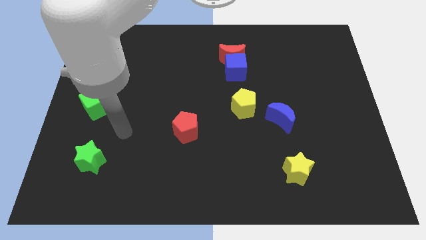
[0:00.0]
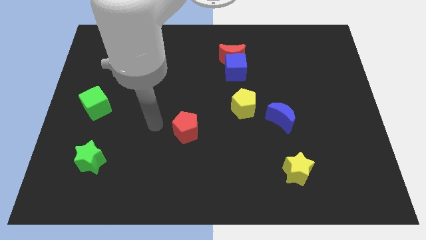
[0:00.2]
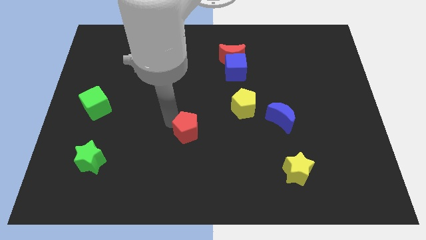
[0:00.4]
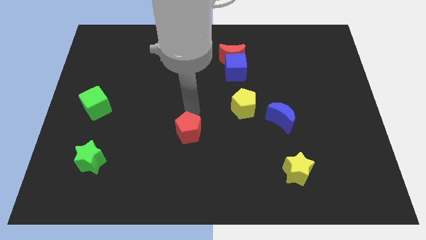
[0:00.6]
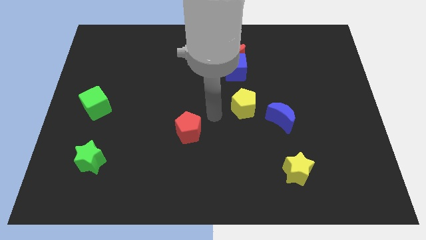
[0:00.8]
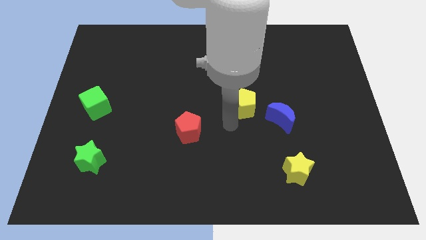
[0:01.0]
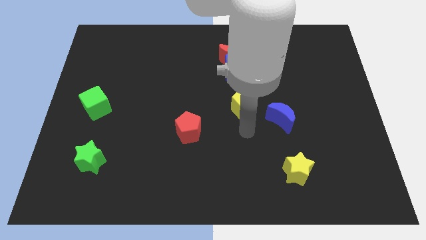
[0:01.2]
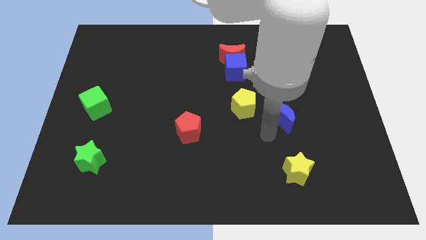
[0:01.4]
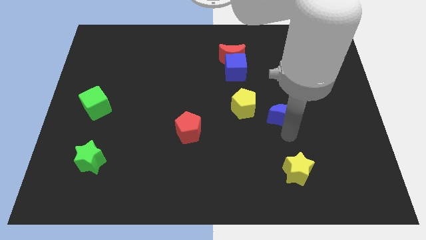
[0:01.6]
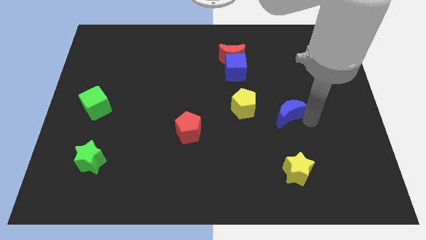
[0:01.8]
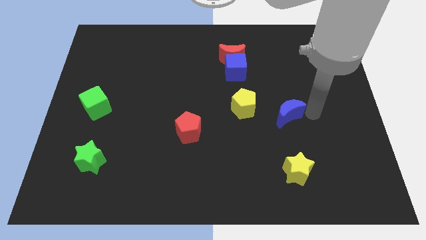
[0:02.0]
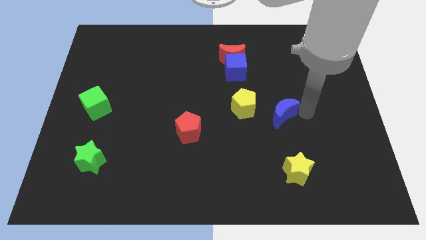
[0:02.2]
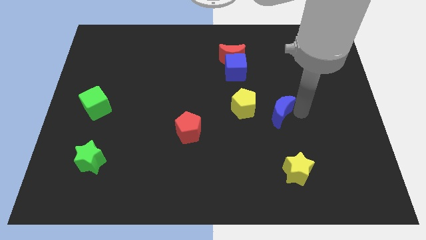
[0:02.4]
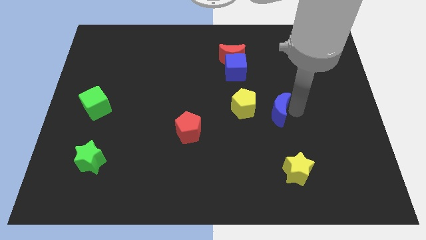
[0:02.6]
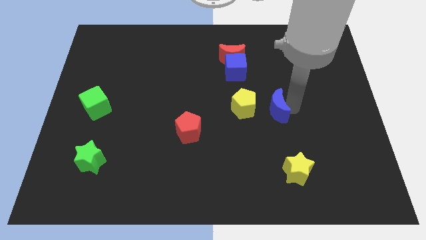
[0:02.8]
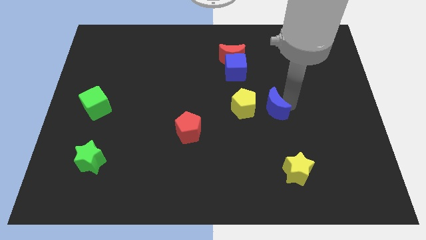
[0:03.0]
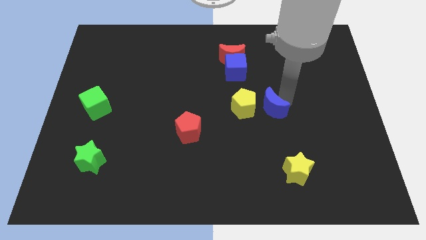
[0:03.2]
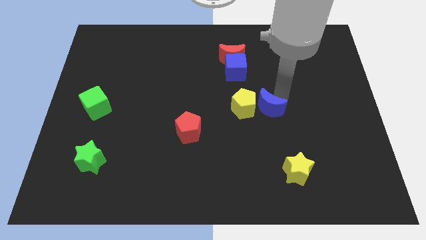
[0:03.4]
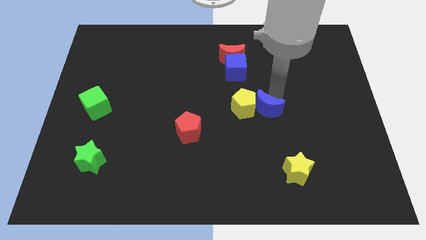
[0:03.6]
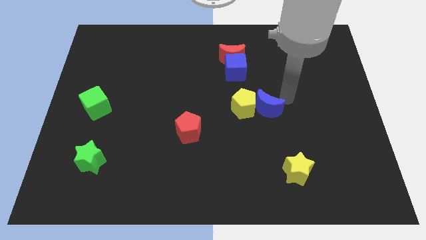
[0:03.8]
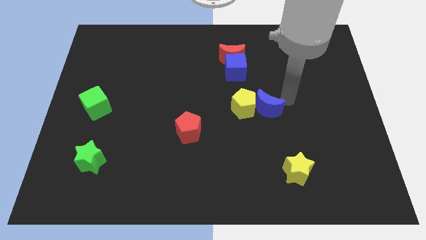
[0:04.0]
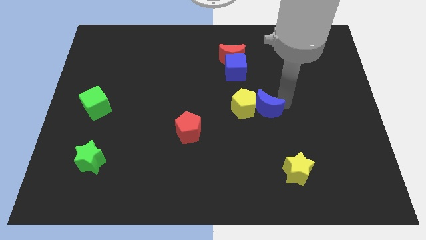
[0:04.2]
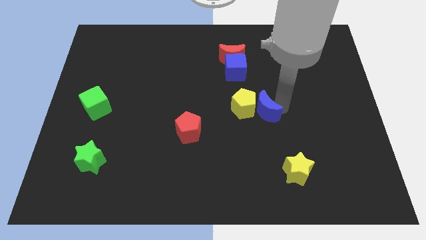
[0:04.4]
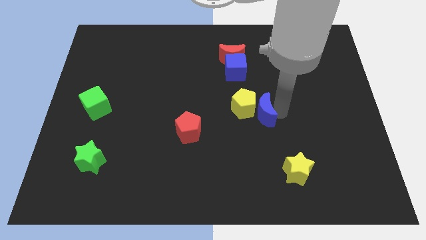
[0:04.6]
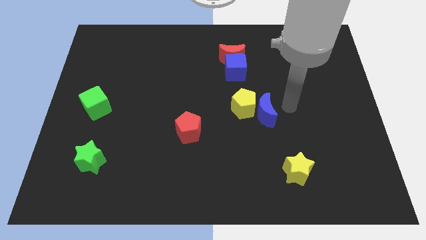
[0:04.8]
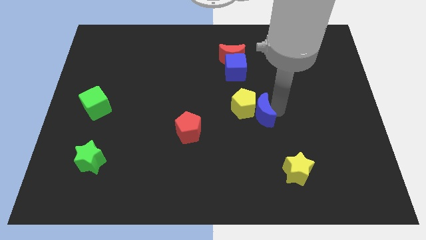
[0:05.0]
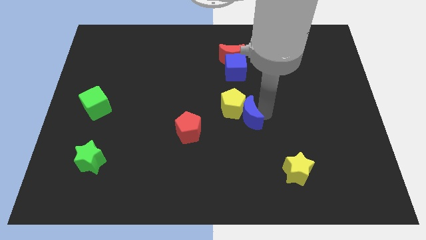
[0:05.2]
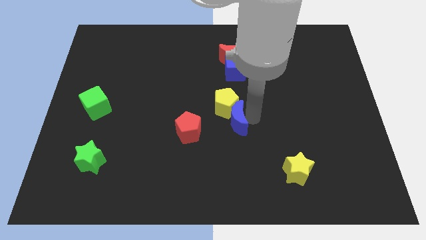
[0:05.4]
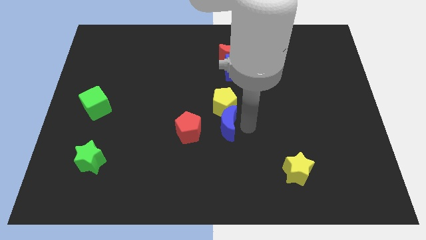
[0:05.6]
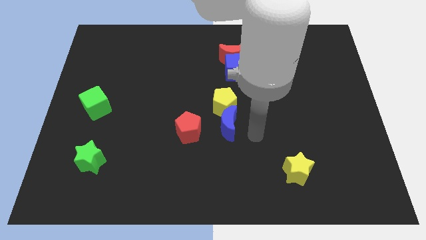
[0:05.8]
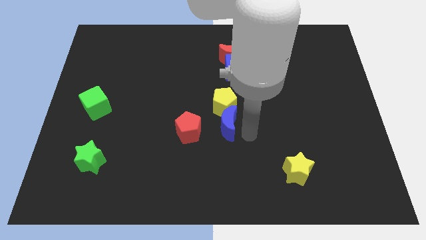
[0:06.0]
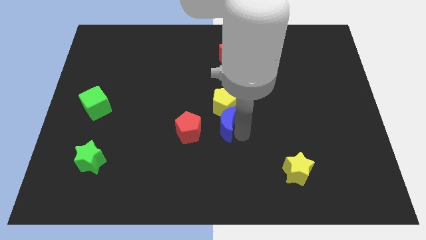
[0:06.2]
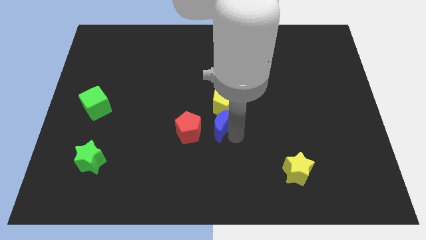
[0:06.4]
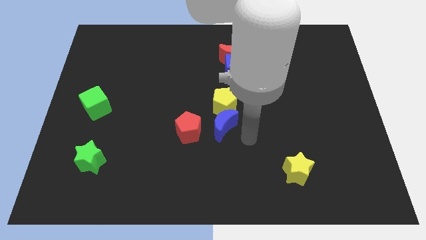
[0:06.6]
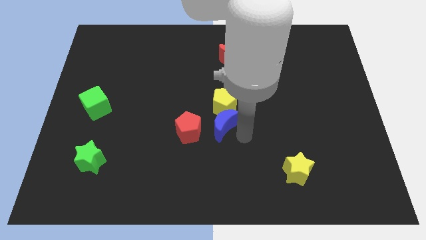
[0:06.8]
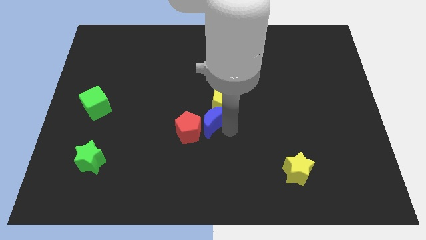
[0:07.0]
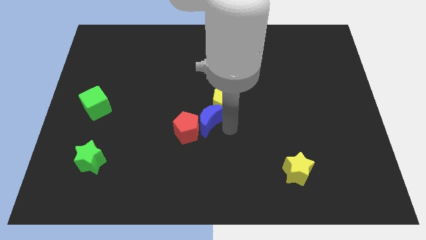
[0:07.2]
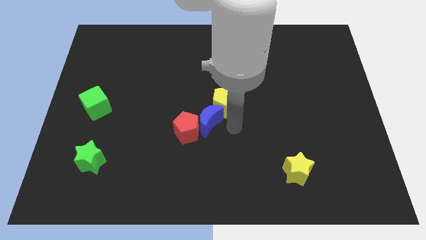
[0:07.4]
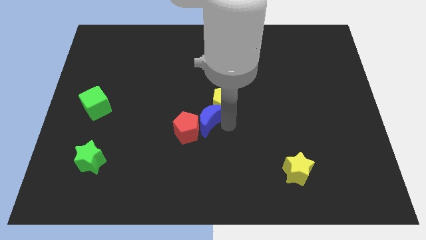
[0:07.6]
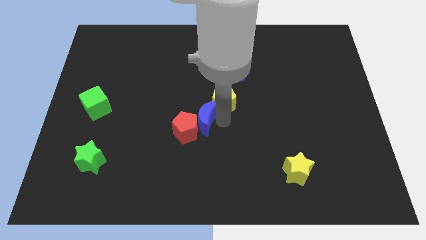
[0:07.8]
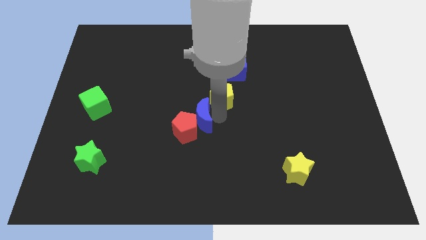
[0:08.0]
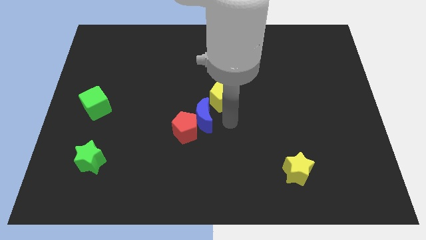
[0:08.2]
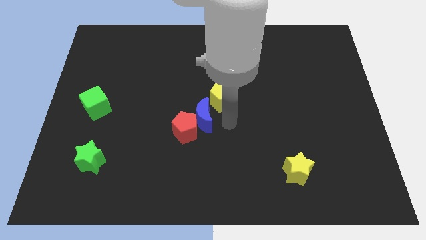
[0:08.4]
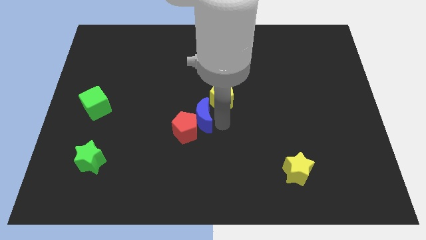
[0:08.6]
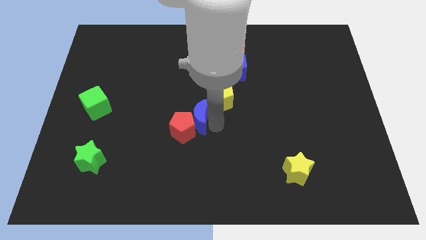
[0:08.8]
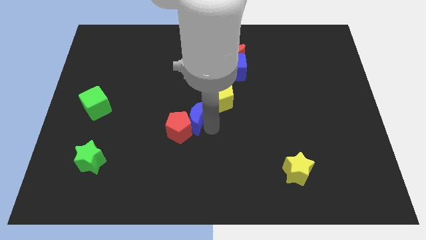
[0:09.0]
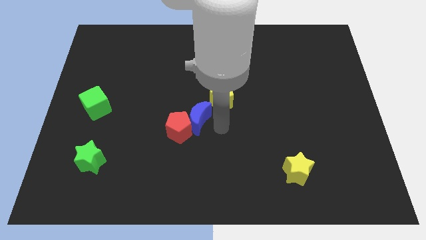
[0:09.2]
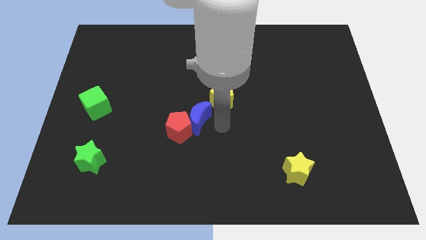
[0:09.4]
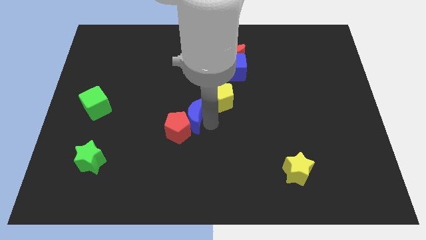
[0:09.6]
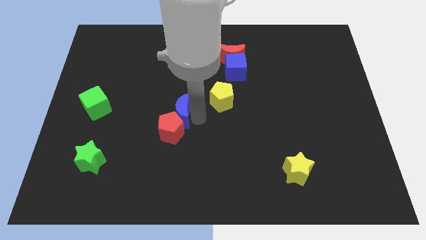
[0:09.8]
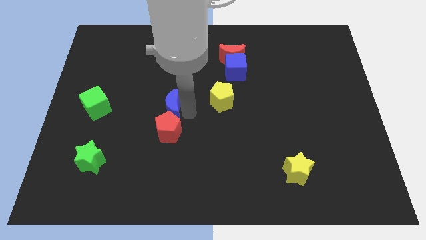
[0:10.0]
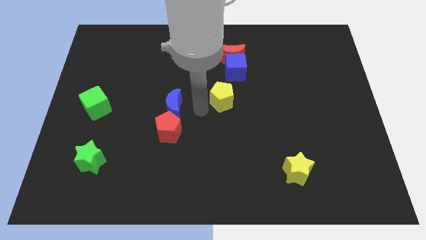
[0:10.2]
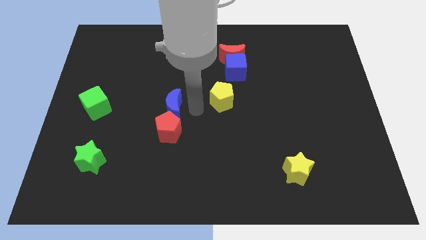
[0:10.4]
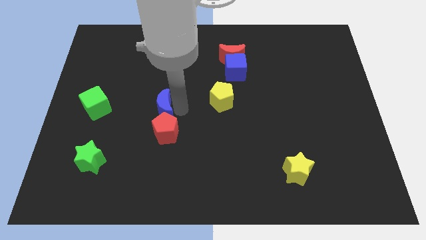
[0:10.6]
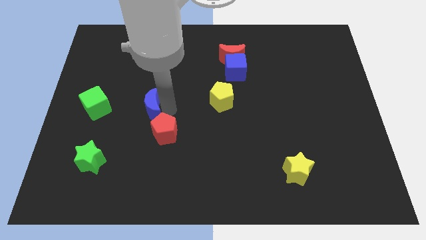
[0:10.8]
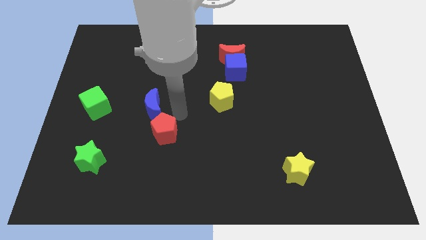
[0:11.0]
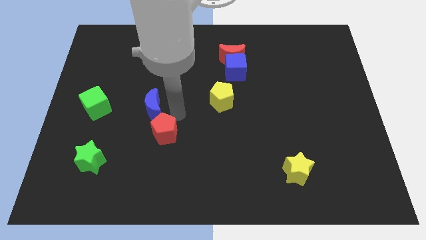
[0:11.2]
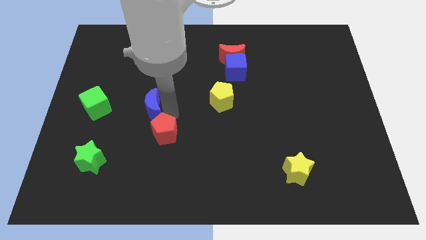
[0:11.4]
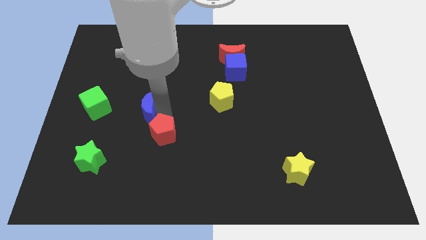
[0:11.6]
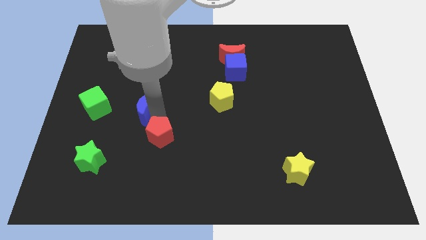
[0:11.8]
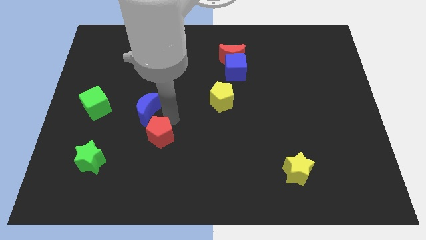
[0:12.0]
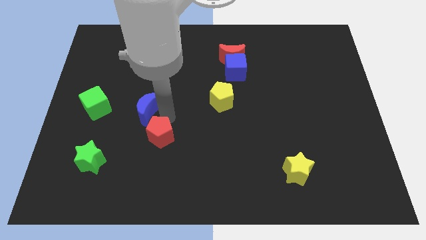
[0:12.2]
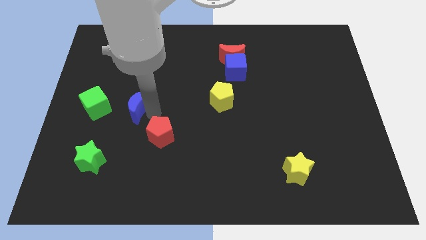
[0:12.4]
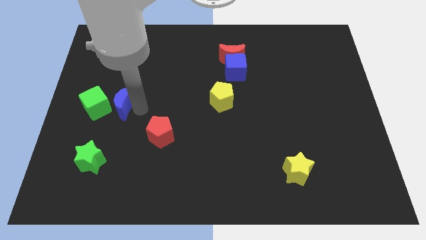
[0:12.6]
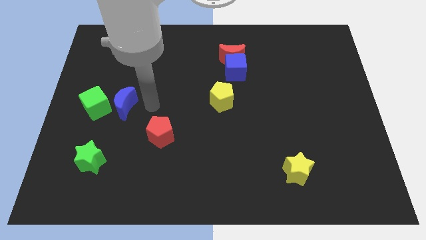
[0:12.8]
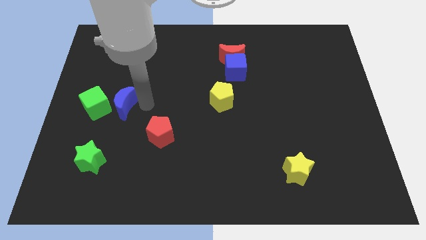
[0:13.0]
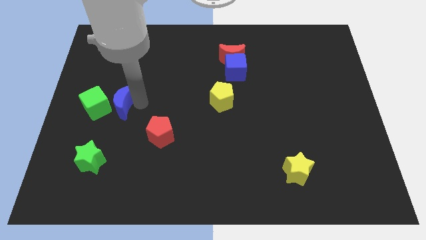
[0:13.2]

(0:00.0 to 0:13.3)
slide the blue moon towards the green cube
